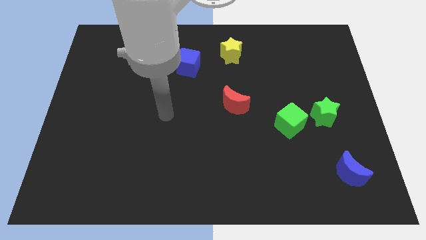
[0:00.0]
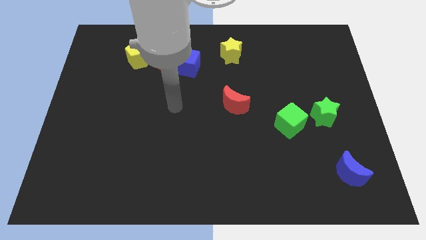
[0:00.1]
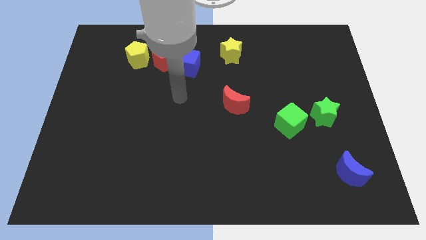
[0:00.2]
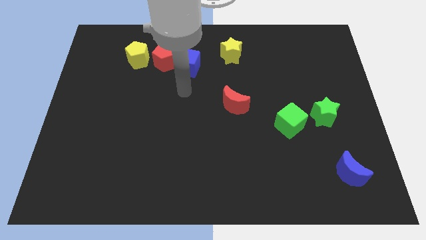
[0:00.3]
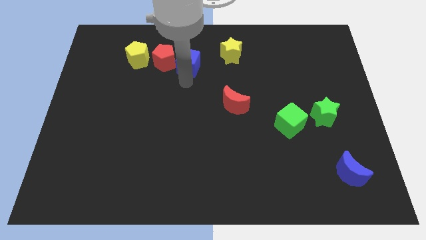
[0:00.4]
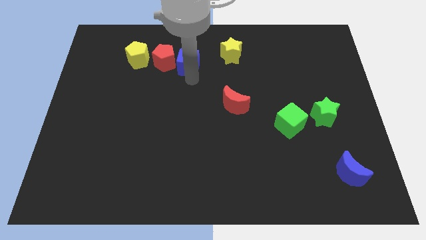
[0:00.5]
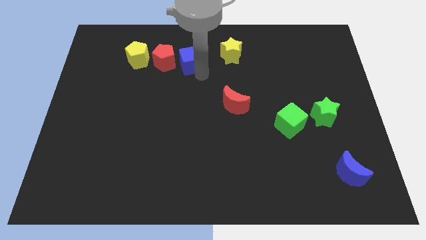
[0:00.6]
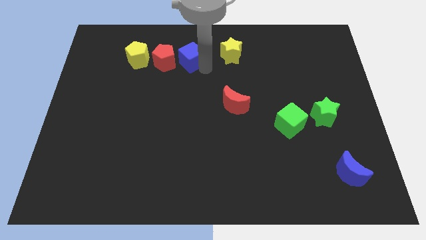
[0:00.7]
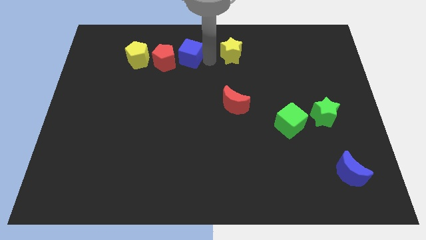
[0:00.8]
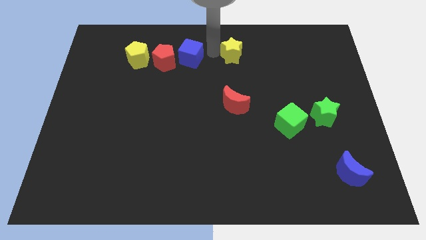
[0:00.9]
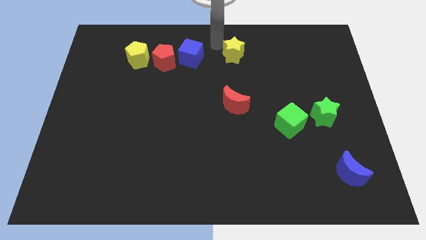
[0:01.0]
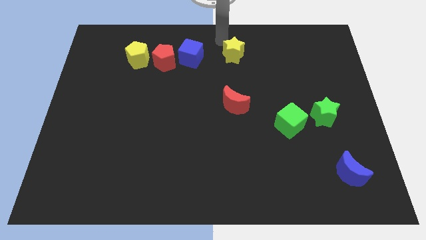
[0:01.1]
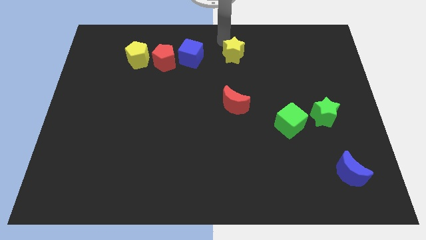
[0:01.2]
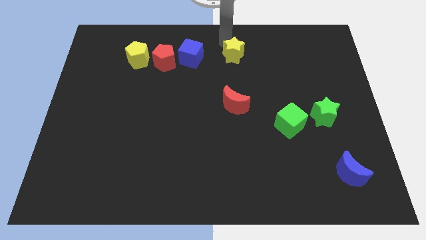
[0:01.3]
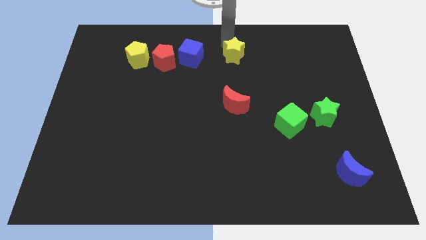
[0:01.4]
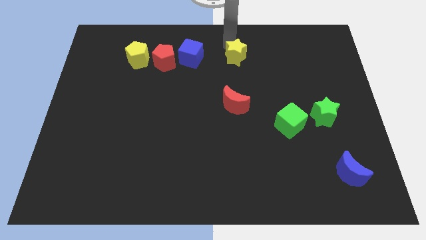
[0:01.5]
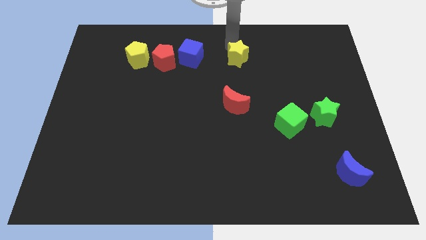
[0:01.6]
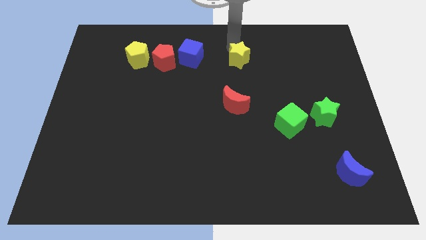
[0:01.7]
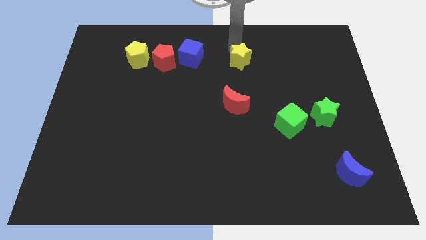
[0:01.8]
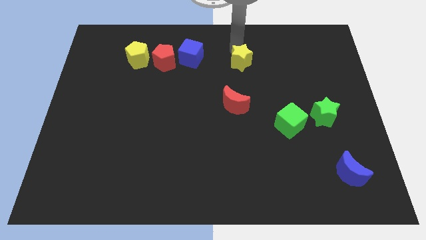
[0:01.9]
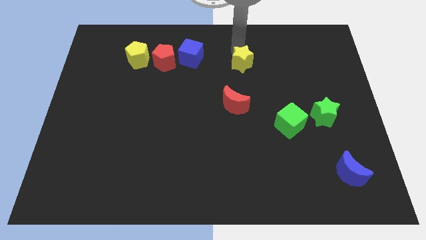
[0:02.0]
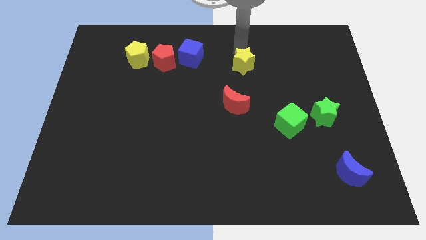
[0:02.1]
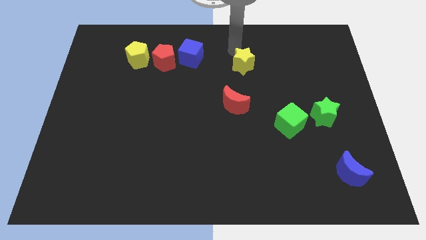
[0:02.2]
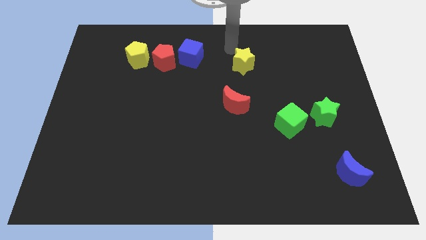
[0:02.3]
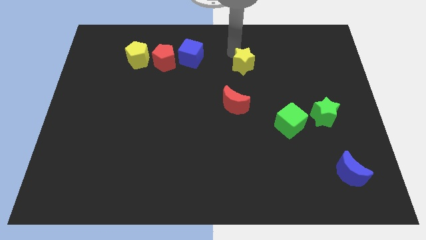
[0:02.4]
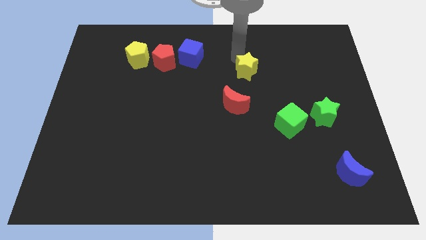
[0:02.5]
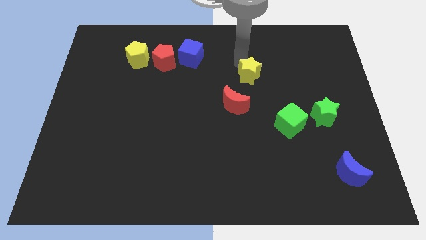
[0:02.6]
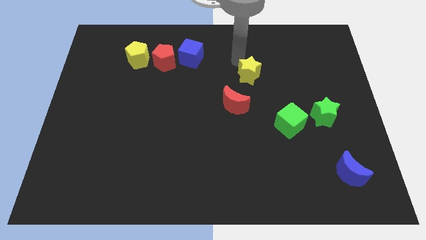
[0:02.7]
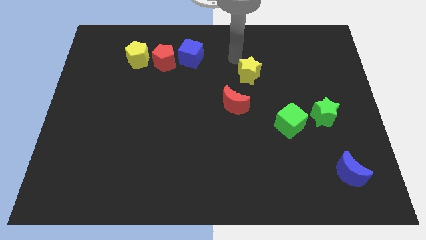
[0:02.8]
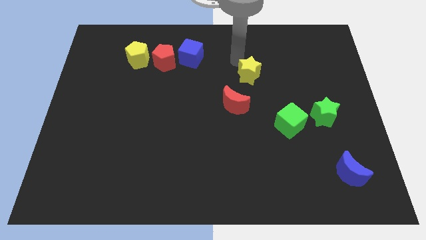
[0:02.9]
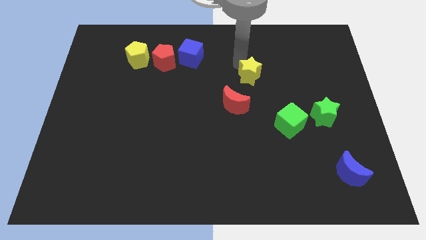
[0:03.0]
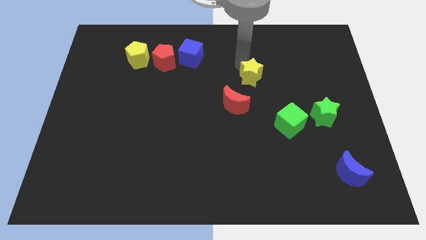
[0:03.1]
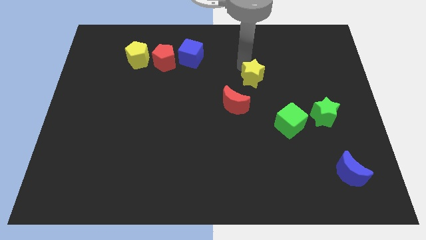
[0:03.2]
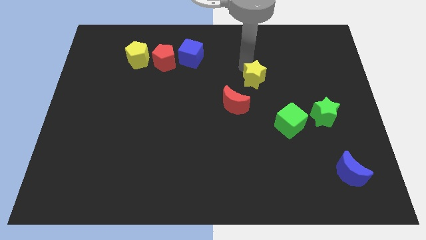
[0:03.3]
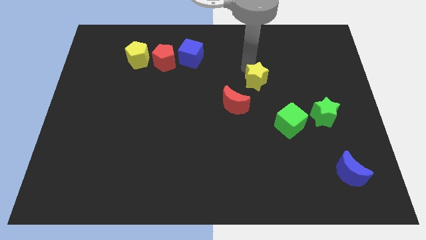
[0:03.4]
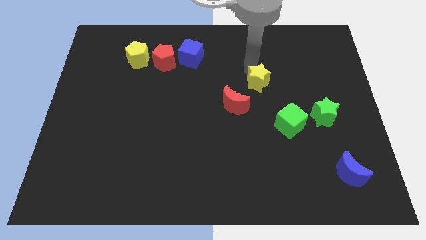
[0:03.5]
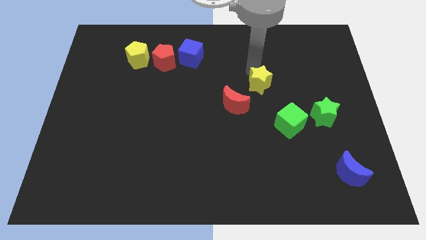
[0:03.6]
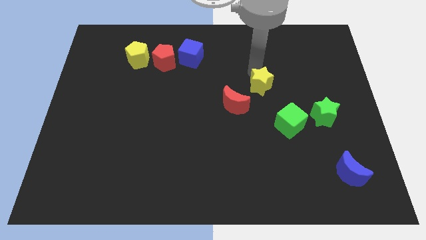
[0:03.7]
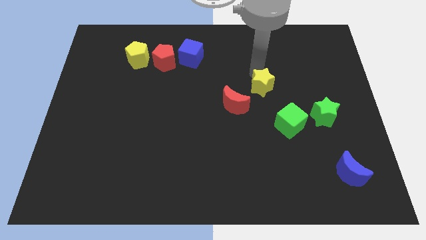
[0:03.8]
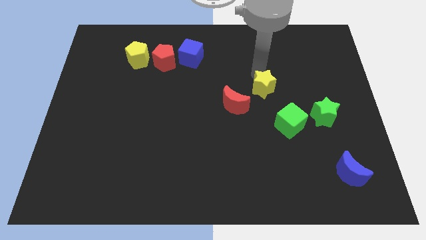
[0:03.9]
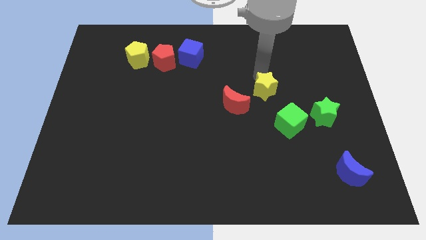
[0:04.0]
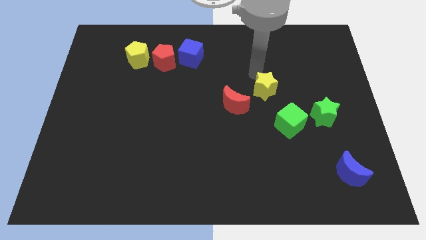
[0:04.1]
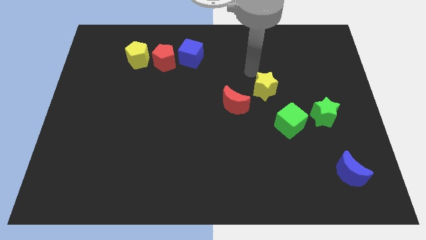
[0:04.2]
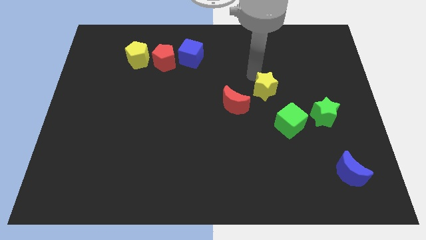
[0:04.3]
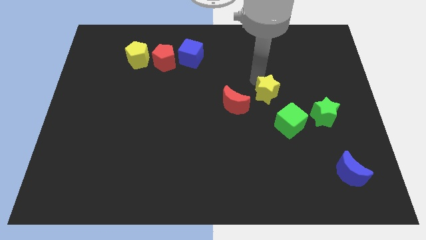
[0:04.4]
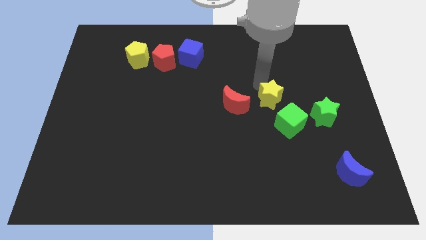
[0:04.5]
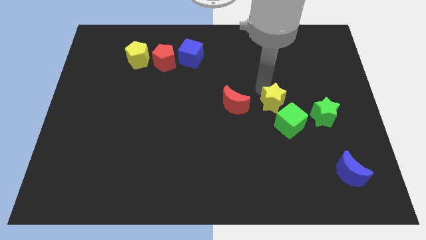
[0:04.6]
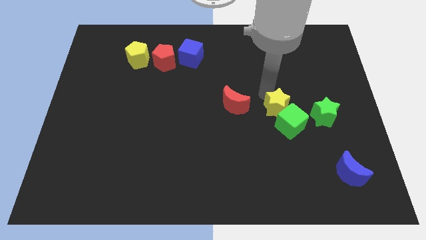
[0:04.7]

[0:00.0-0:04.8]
push the yellow star to the green cube

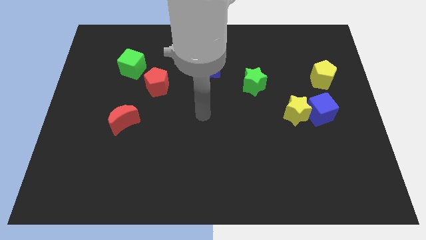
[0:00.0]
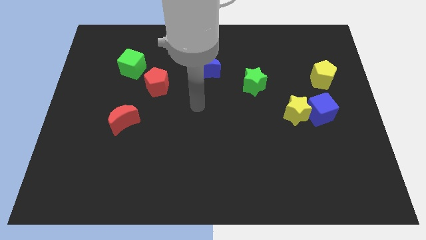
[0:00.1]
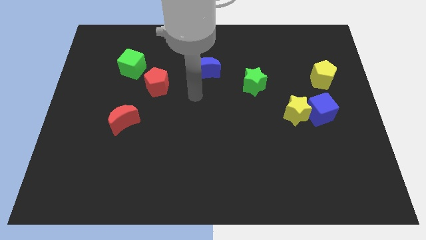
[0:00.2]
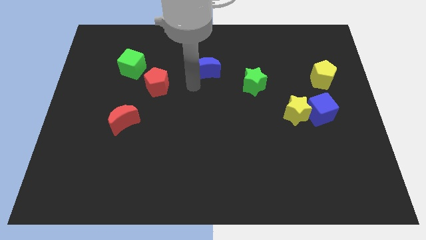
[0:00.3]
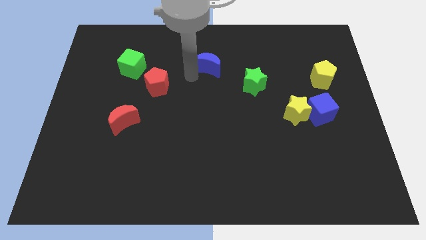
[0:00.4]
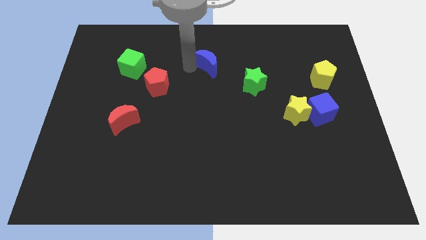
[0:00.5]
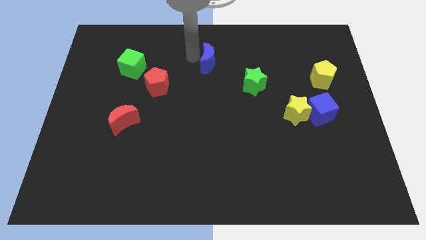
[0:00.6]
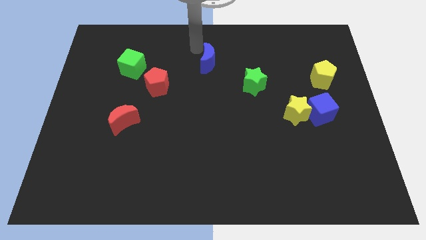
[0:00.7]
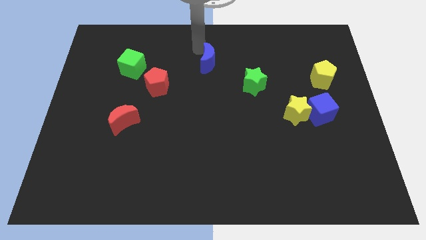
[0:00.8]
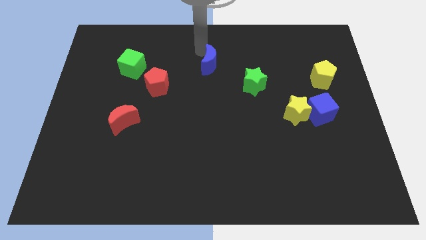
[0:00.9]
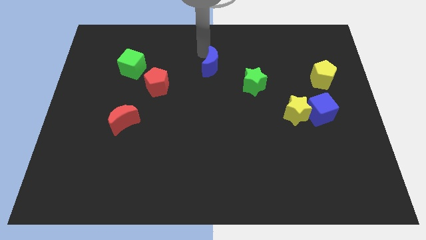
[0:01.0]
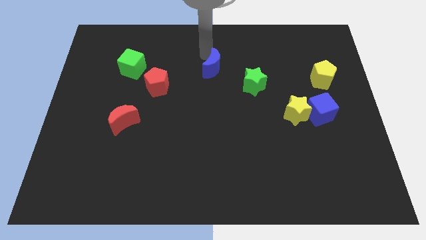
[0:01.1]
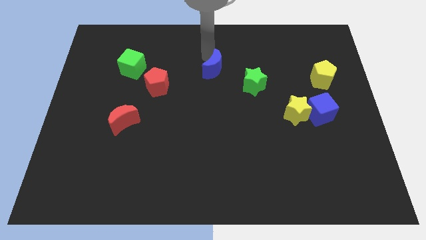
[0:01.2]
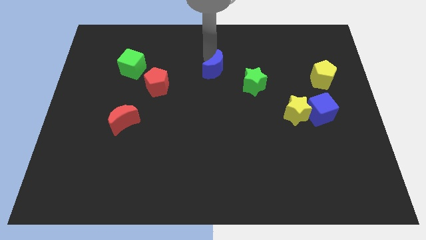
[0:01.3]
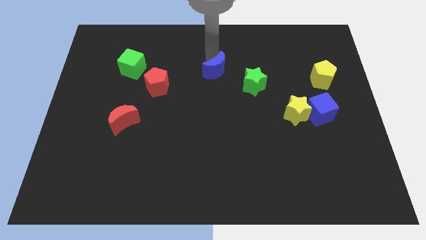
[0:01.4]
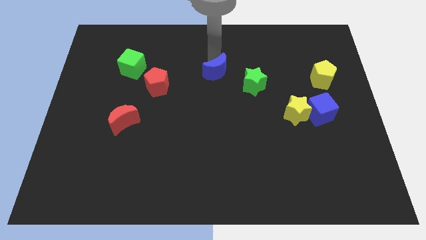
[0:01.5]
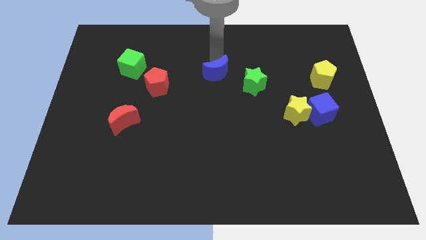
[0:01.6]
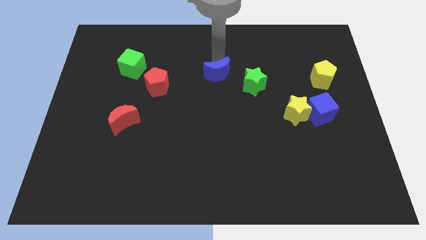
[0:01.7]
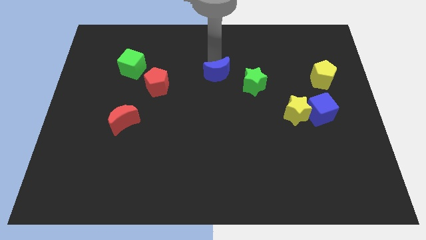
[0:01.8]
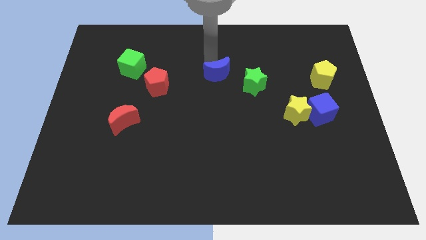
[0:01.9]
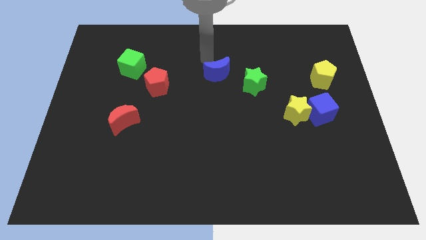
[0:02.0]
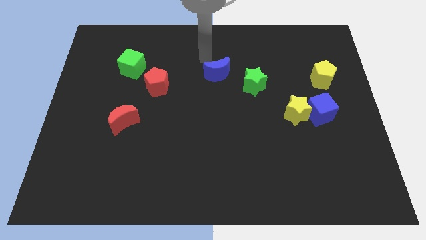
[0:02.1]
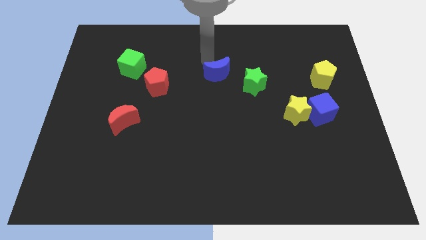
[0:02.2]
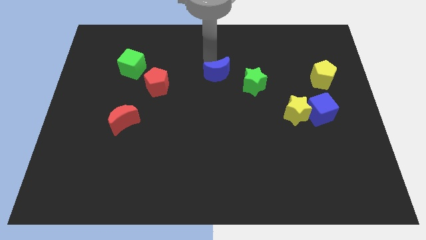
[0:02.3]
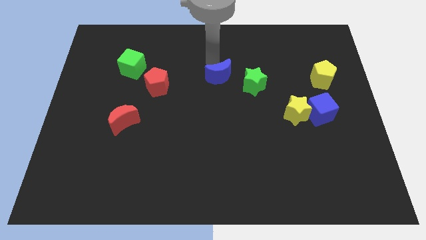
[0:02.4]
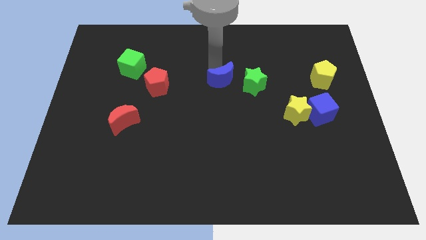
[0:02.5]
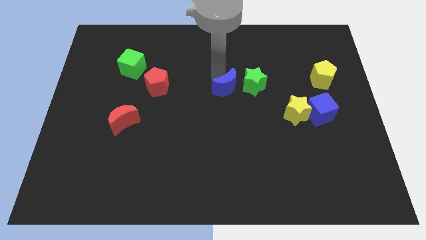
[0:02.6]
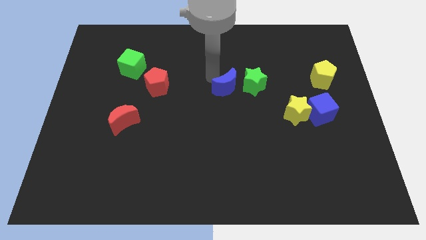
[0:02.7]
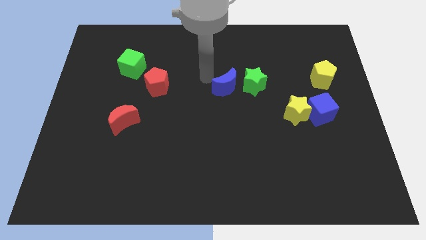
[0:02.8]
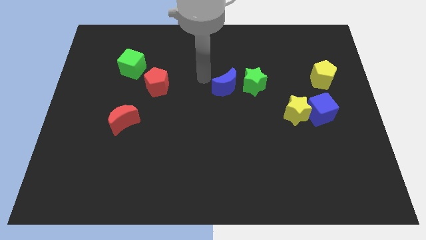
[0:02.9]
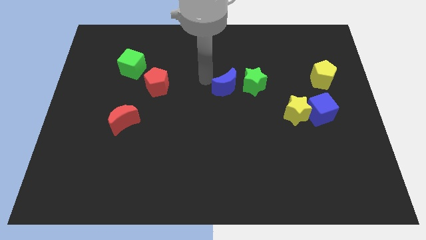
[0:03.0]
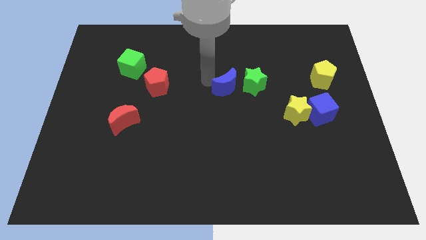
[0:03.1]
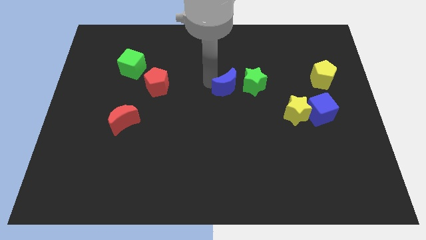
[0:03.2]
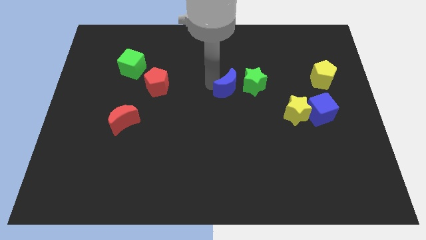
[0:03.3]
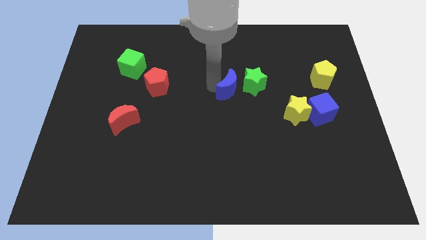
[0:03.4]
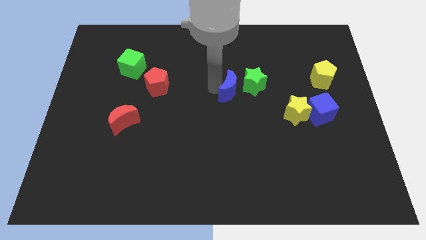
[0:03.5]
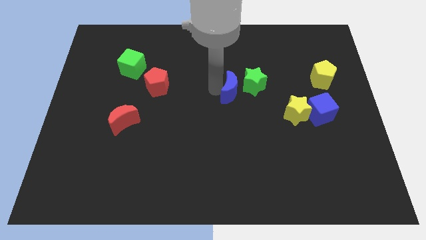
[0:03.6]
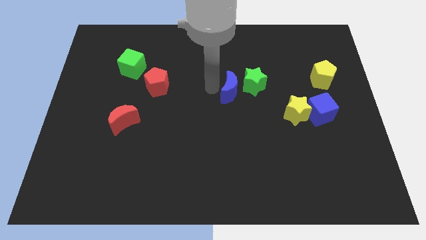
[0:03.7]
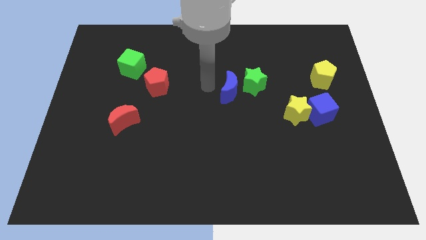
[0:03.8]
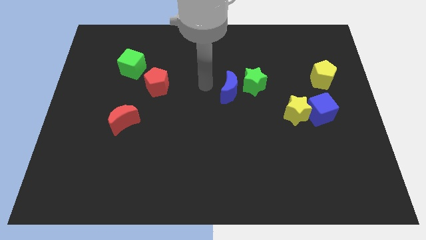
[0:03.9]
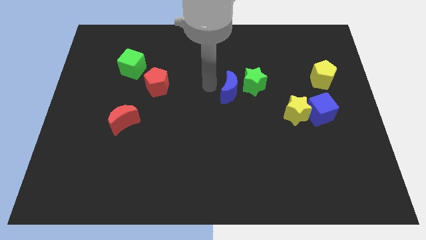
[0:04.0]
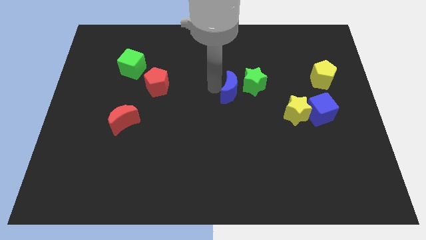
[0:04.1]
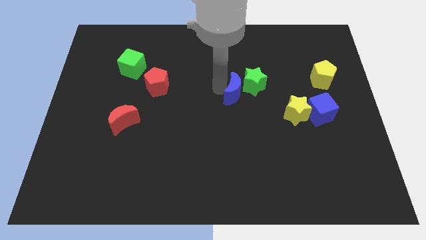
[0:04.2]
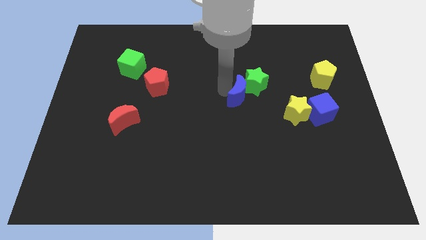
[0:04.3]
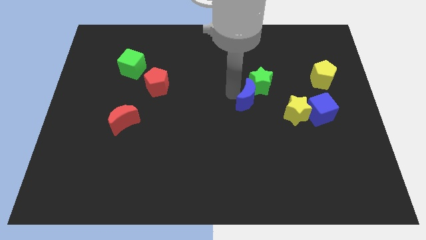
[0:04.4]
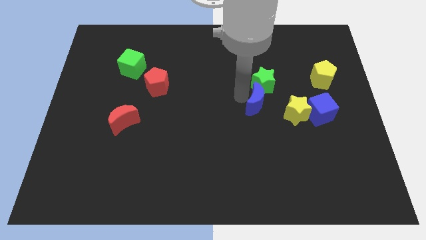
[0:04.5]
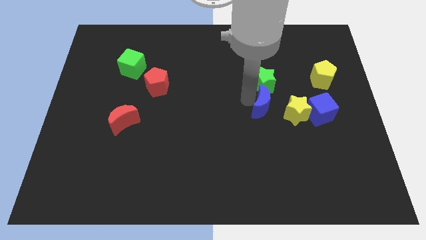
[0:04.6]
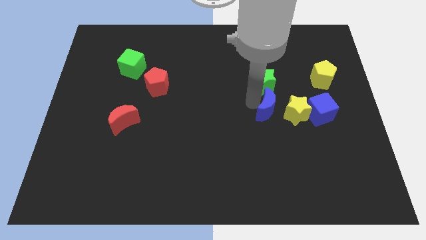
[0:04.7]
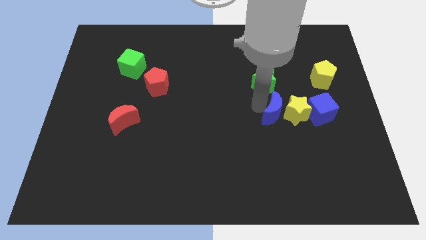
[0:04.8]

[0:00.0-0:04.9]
push the blue moon towards the yellow star
